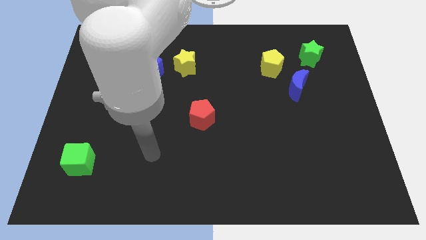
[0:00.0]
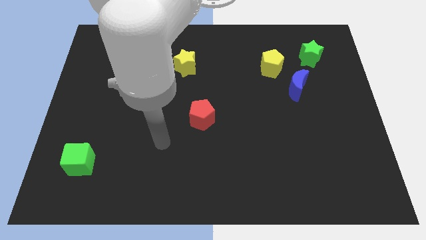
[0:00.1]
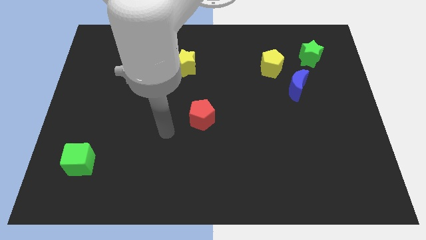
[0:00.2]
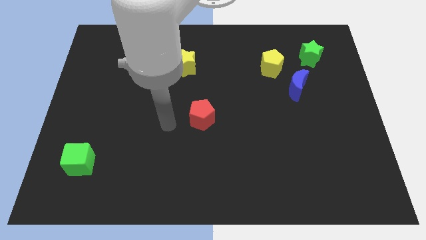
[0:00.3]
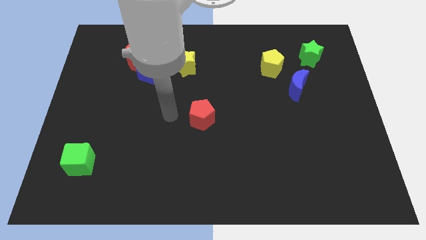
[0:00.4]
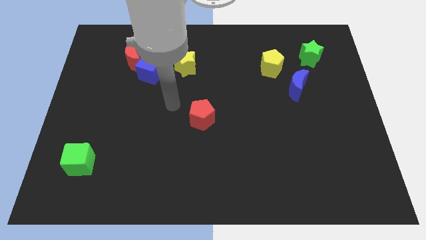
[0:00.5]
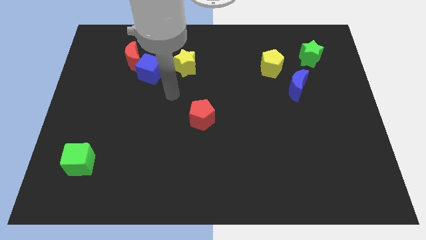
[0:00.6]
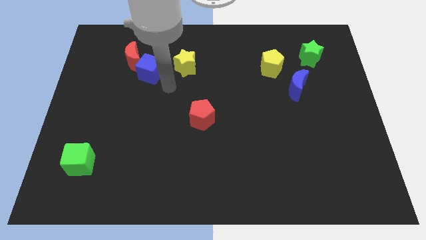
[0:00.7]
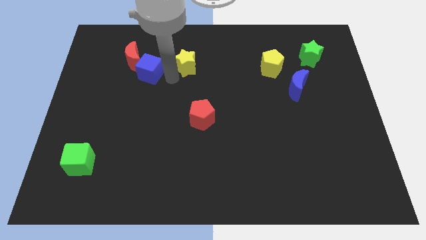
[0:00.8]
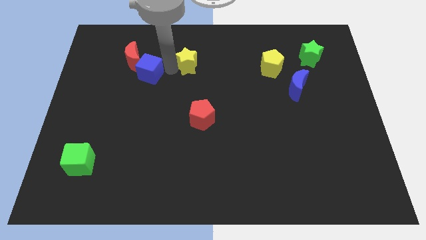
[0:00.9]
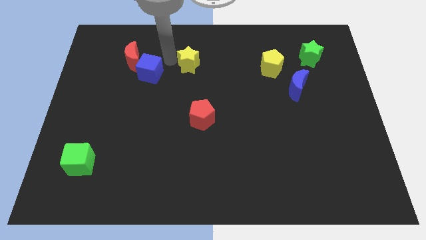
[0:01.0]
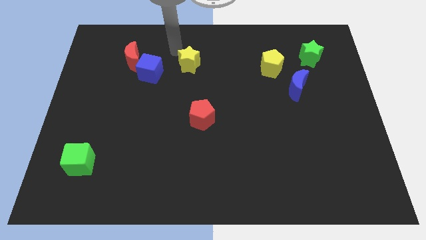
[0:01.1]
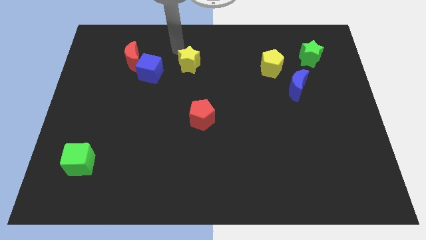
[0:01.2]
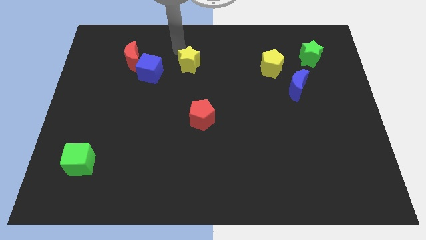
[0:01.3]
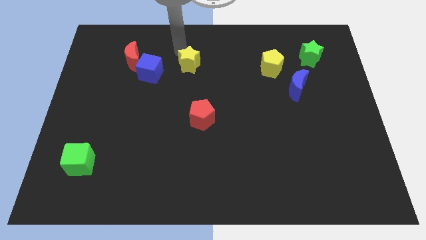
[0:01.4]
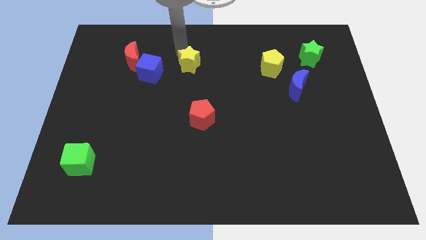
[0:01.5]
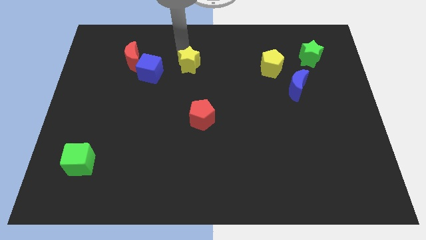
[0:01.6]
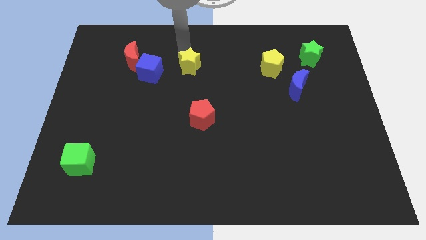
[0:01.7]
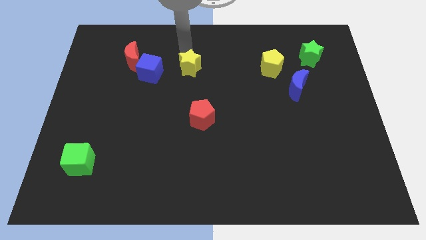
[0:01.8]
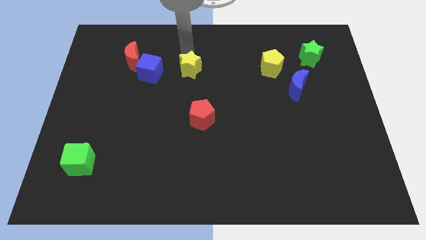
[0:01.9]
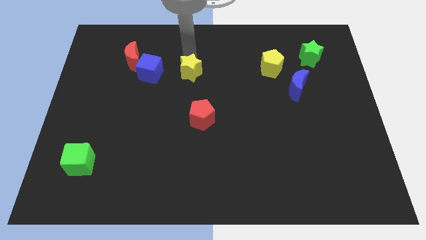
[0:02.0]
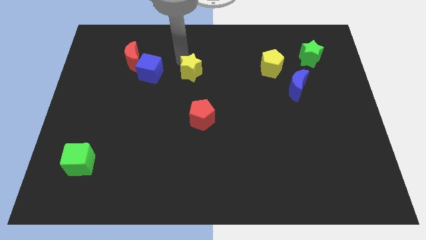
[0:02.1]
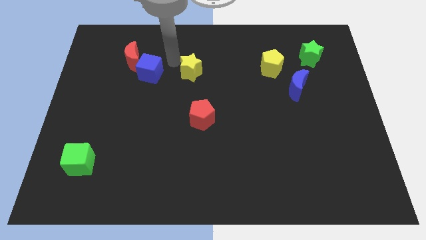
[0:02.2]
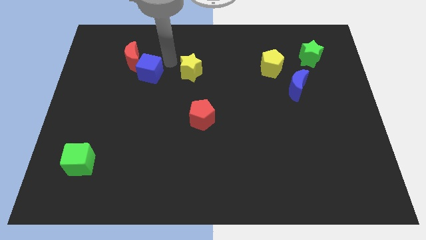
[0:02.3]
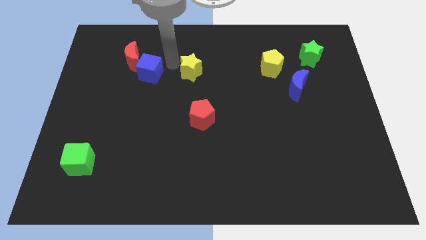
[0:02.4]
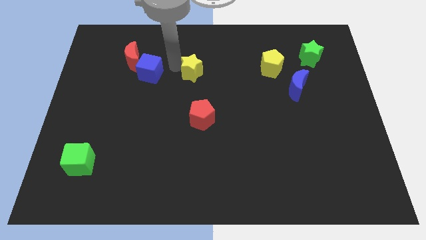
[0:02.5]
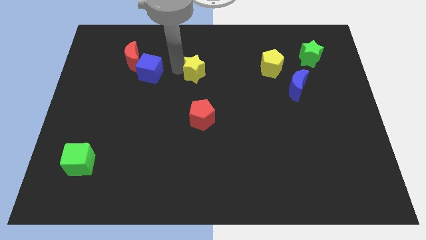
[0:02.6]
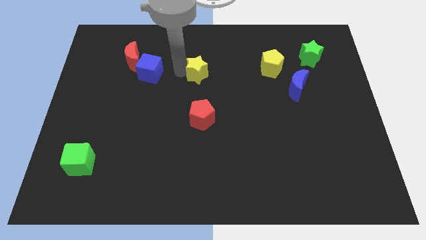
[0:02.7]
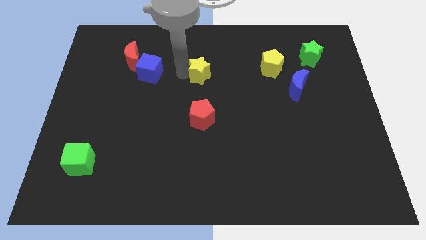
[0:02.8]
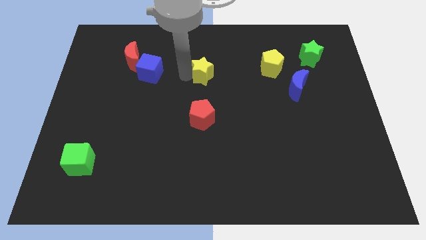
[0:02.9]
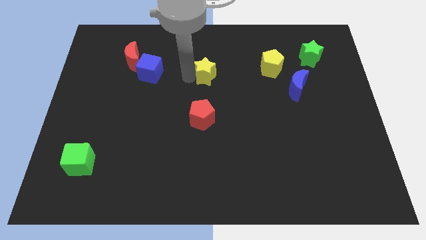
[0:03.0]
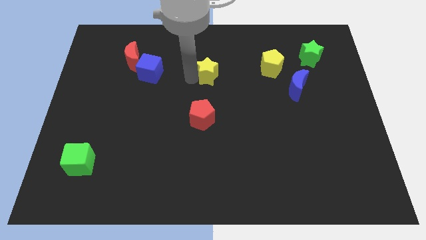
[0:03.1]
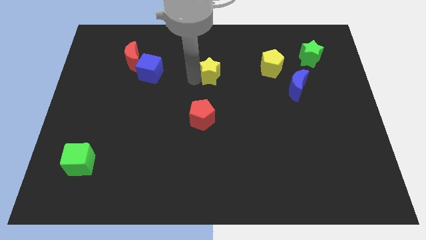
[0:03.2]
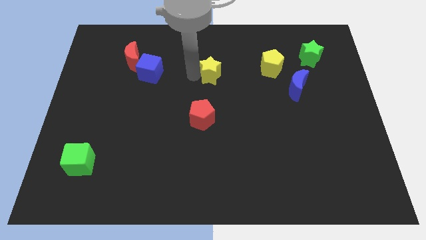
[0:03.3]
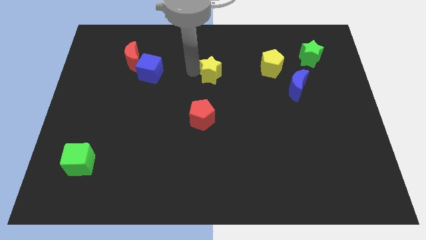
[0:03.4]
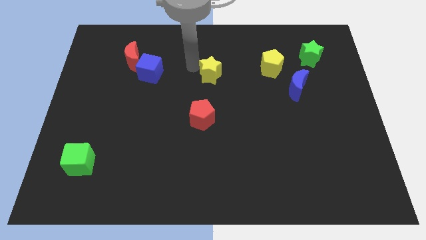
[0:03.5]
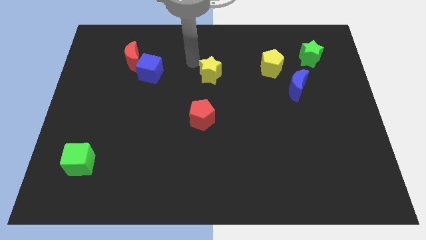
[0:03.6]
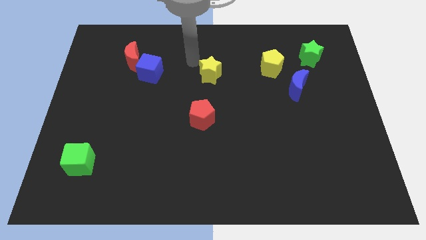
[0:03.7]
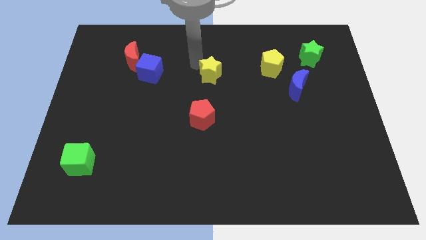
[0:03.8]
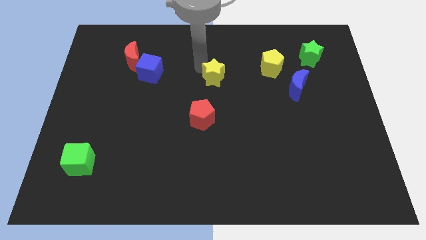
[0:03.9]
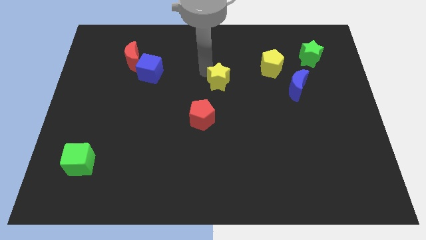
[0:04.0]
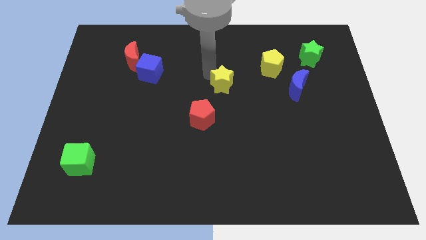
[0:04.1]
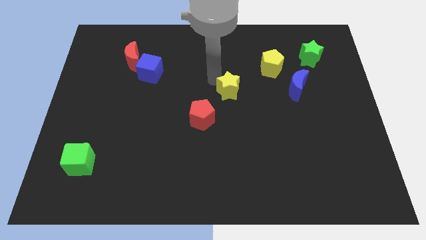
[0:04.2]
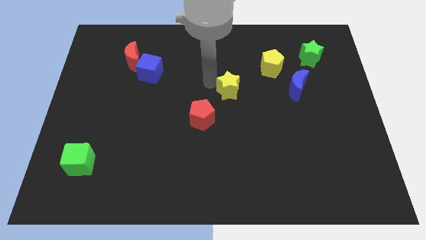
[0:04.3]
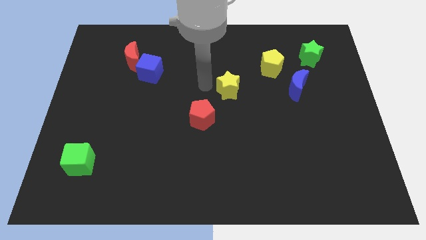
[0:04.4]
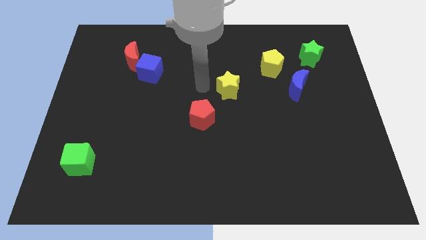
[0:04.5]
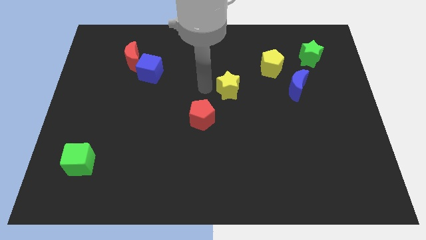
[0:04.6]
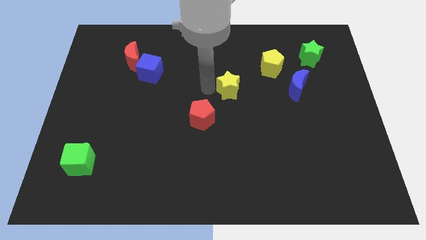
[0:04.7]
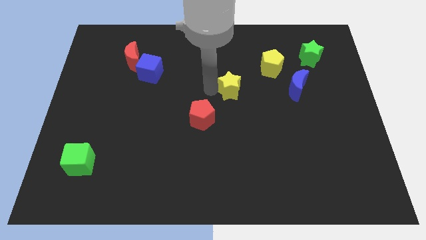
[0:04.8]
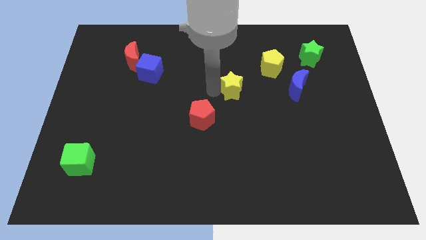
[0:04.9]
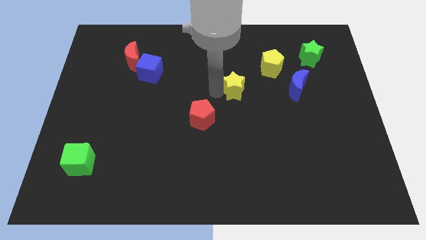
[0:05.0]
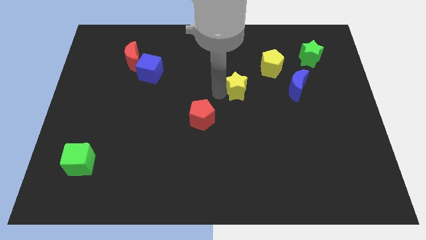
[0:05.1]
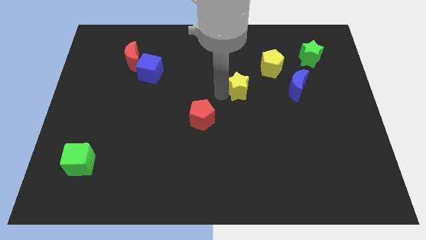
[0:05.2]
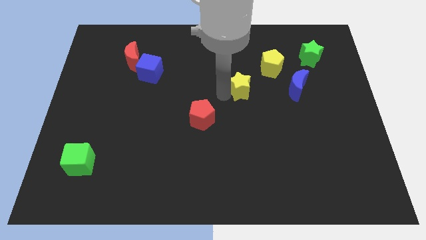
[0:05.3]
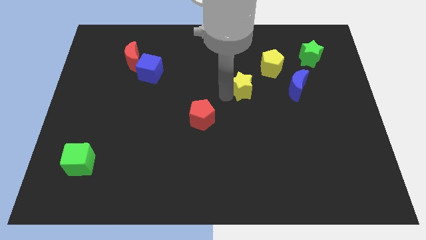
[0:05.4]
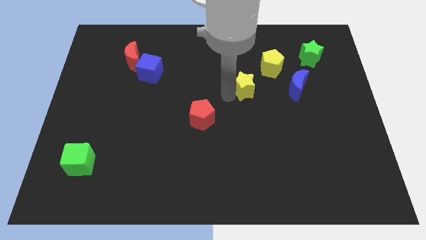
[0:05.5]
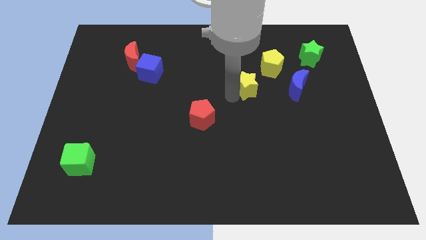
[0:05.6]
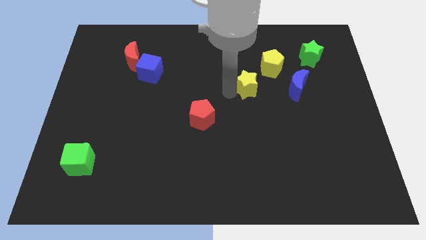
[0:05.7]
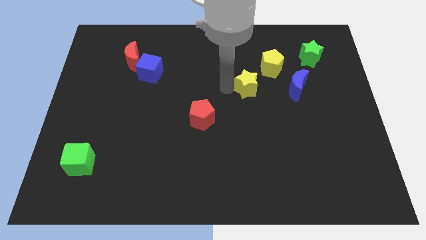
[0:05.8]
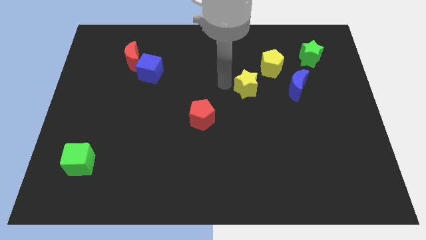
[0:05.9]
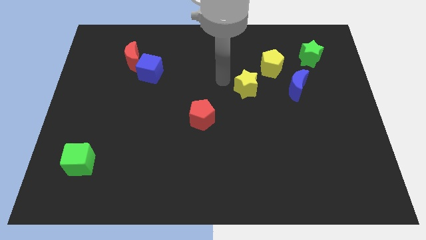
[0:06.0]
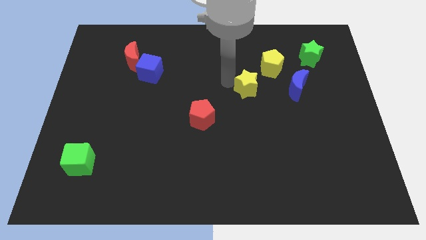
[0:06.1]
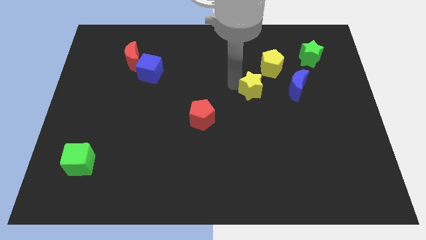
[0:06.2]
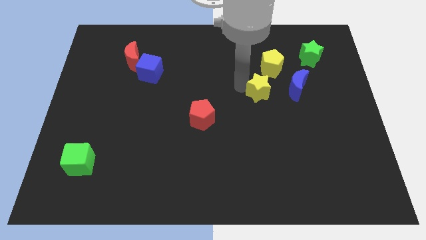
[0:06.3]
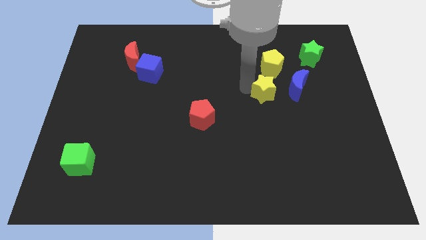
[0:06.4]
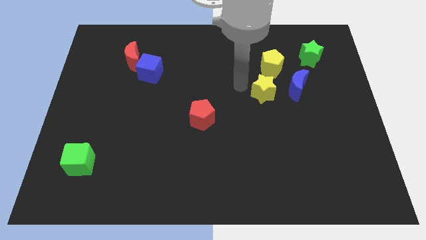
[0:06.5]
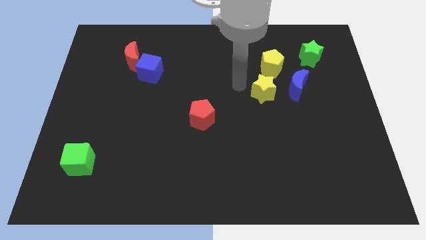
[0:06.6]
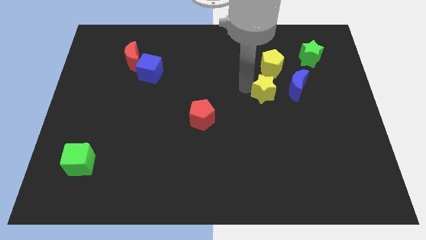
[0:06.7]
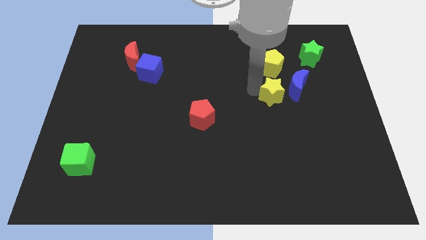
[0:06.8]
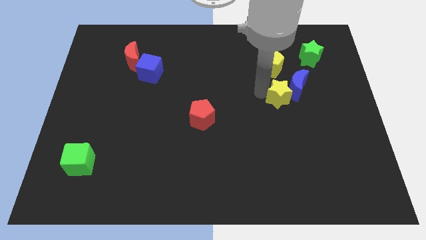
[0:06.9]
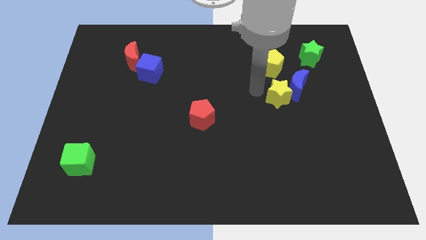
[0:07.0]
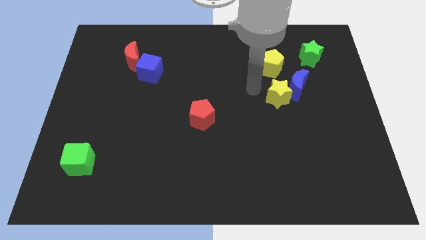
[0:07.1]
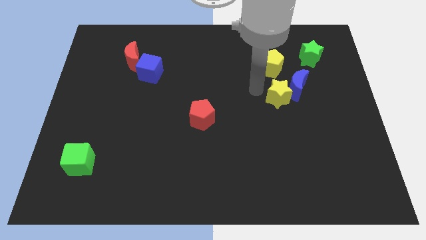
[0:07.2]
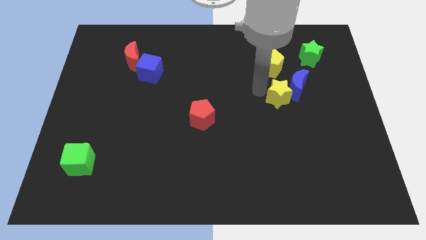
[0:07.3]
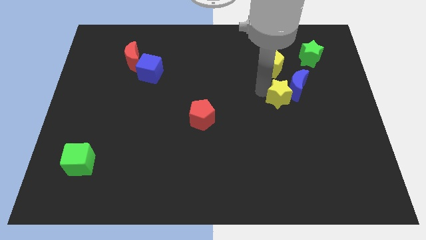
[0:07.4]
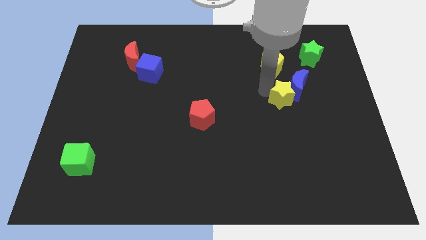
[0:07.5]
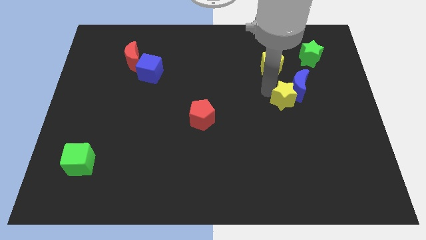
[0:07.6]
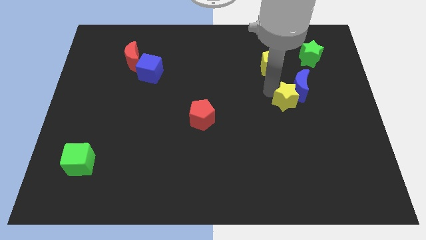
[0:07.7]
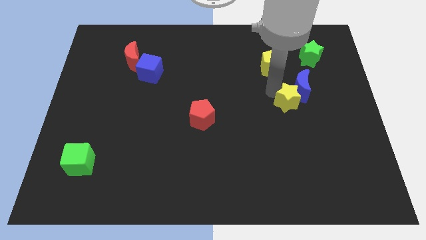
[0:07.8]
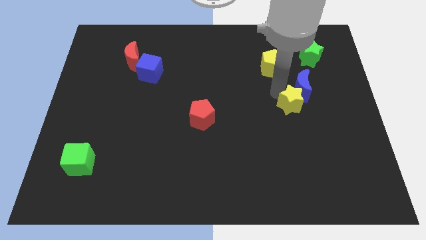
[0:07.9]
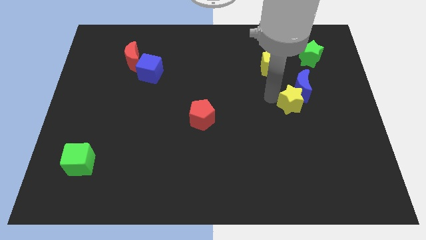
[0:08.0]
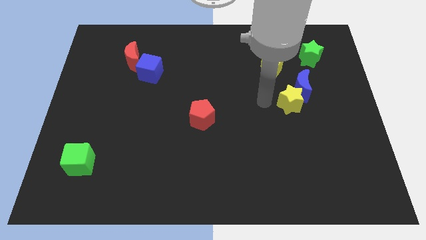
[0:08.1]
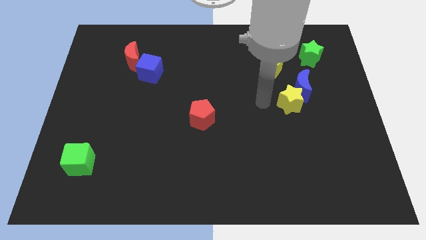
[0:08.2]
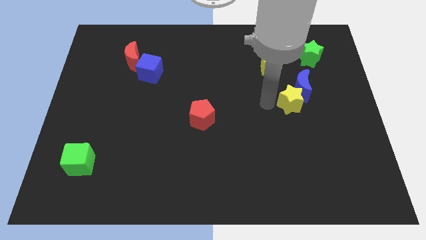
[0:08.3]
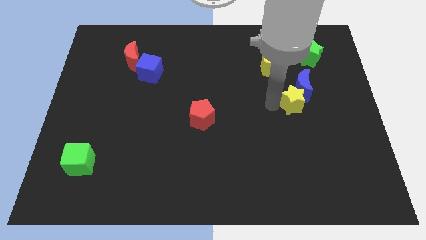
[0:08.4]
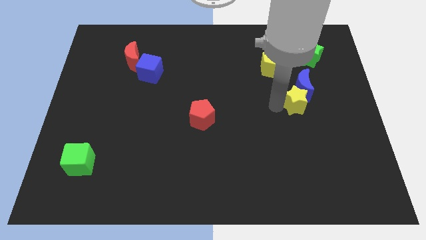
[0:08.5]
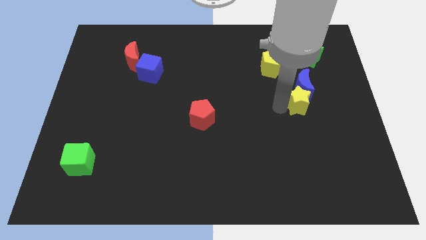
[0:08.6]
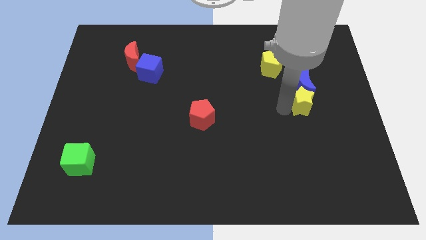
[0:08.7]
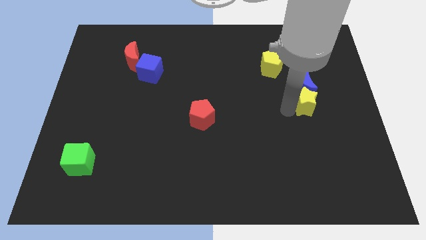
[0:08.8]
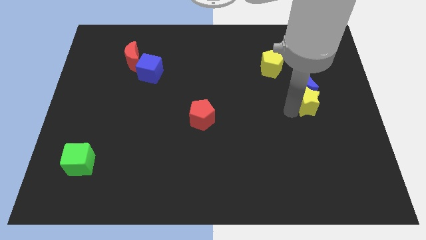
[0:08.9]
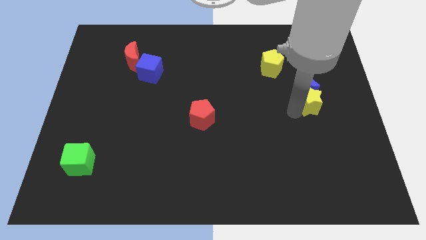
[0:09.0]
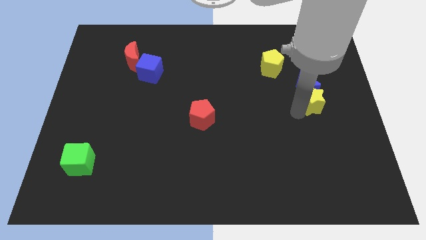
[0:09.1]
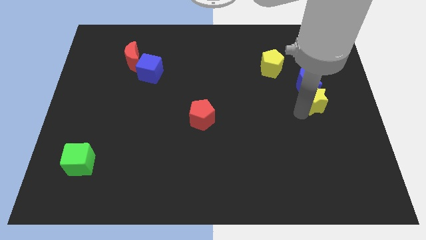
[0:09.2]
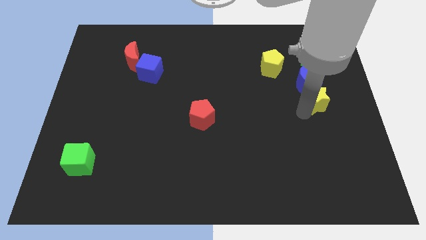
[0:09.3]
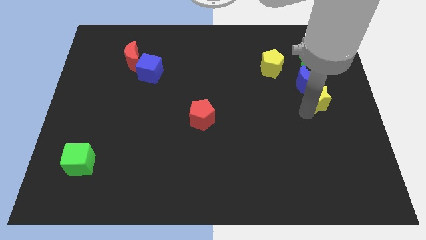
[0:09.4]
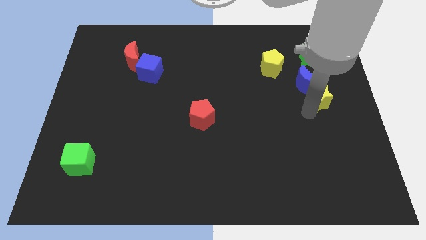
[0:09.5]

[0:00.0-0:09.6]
put the yellow star to the center right
